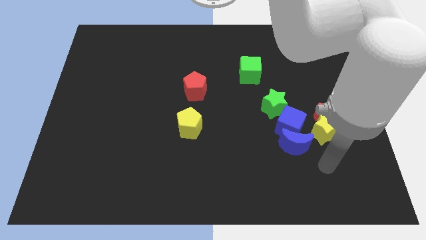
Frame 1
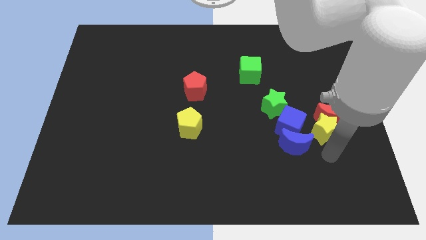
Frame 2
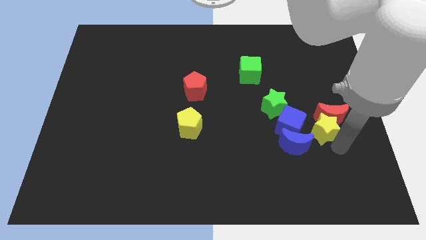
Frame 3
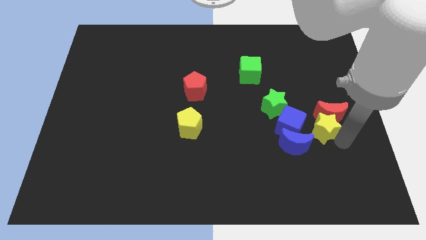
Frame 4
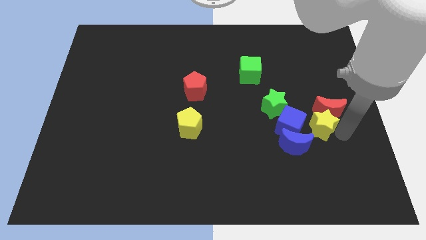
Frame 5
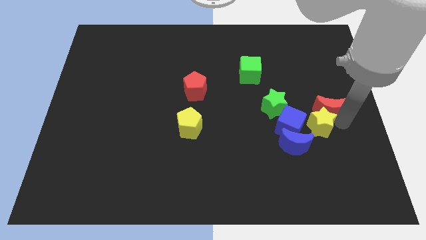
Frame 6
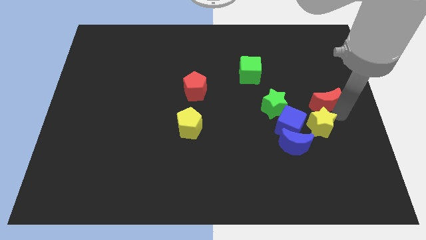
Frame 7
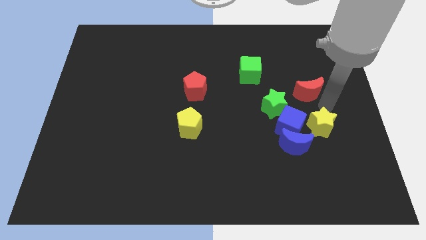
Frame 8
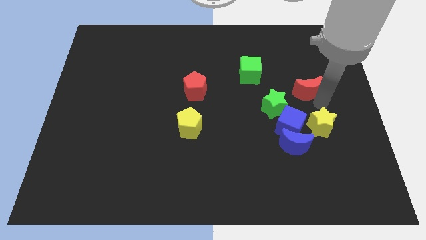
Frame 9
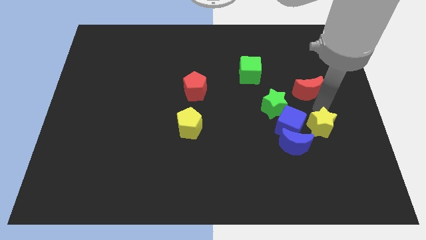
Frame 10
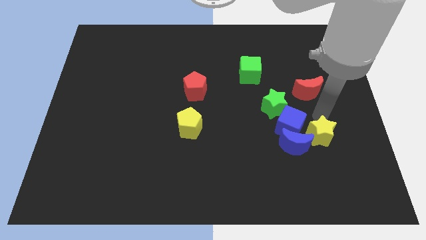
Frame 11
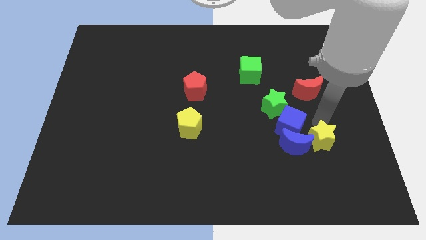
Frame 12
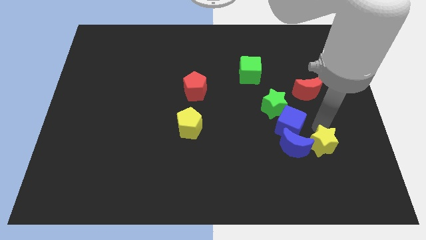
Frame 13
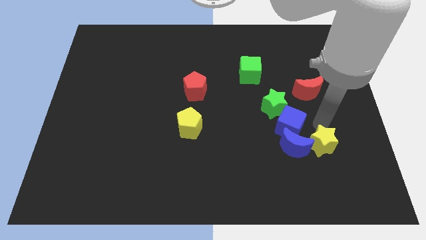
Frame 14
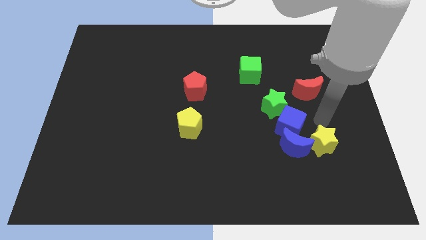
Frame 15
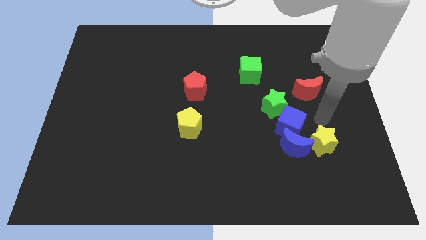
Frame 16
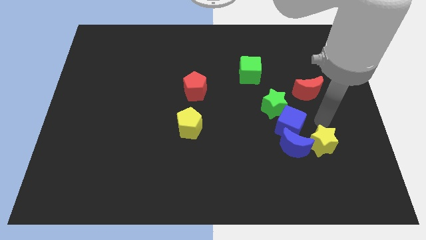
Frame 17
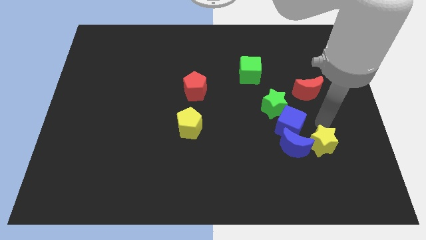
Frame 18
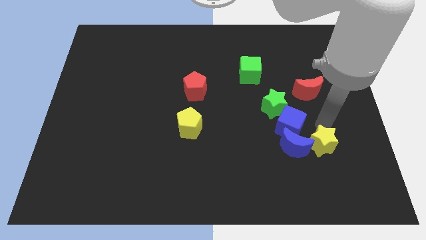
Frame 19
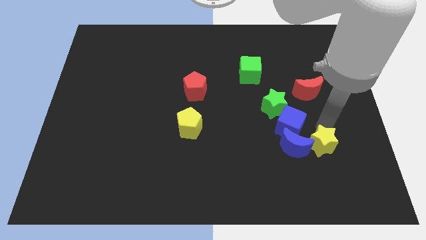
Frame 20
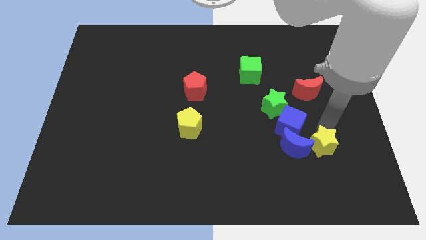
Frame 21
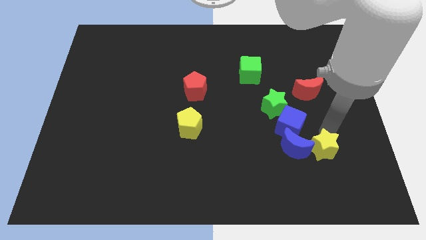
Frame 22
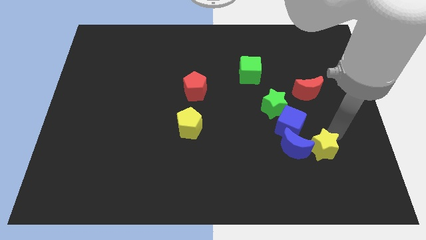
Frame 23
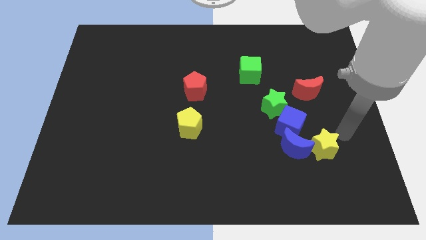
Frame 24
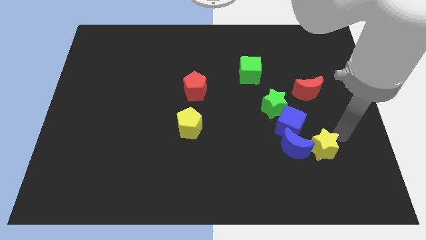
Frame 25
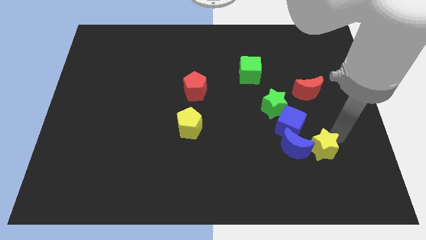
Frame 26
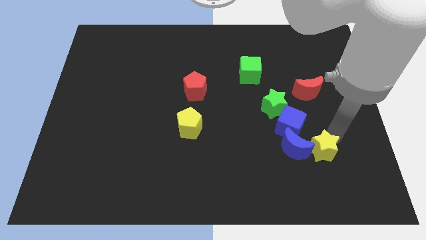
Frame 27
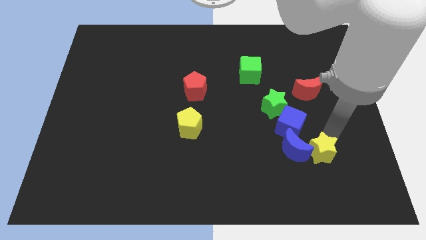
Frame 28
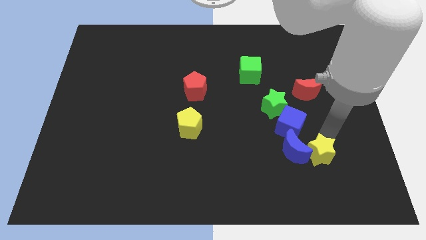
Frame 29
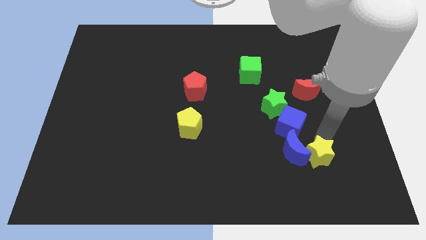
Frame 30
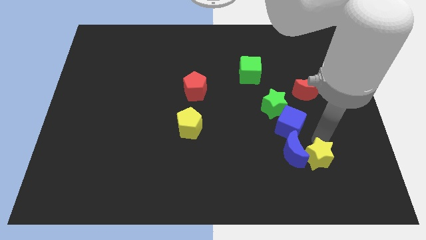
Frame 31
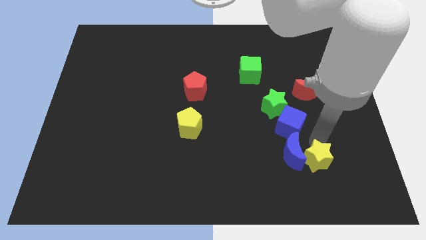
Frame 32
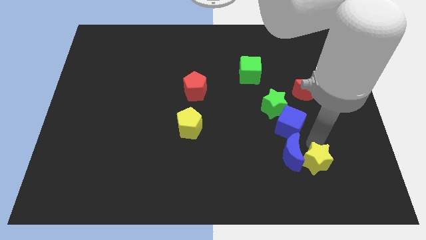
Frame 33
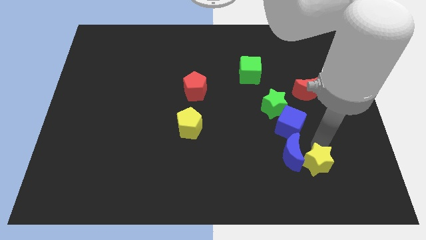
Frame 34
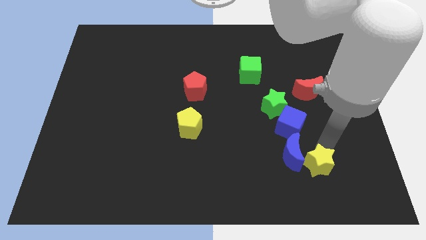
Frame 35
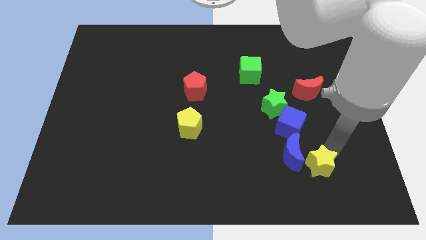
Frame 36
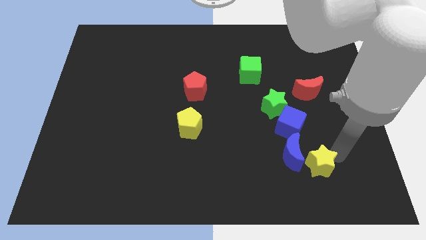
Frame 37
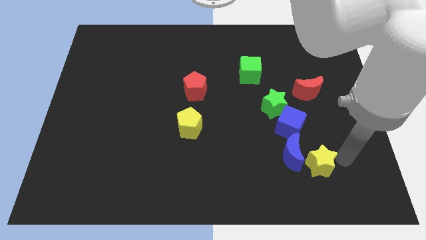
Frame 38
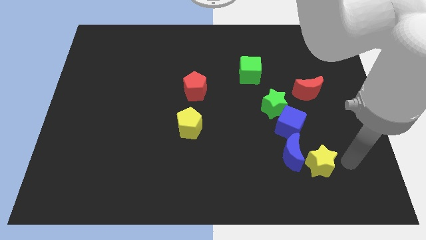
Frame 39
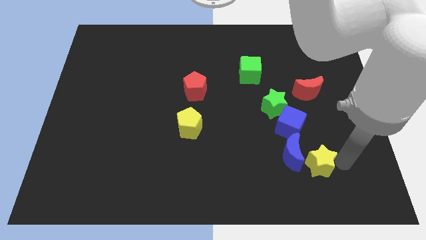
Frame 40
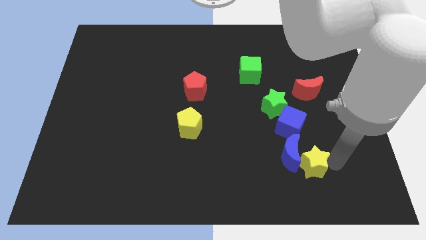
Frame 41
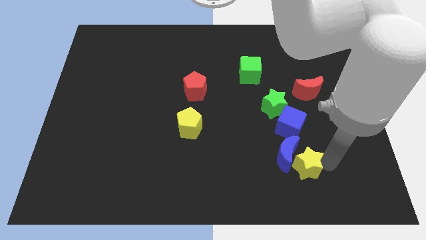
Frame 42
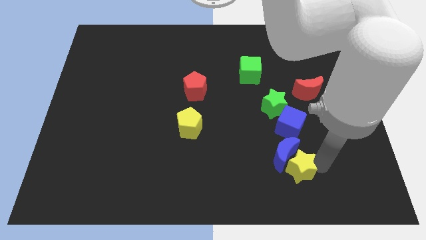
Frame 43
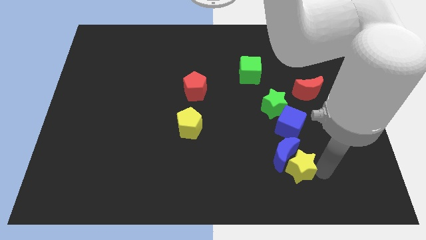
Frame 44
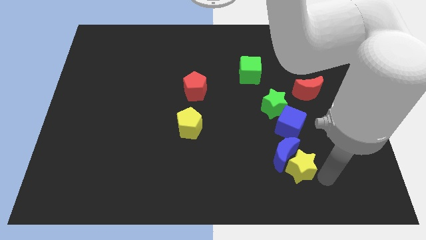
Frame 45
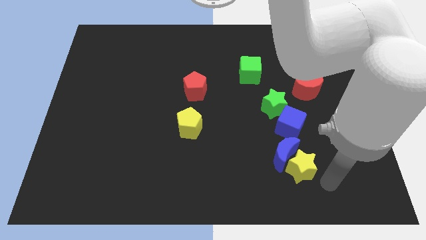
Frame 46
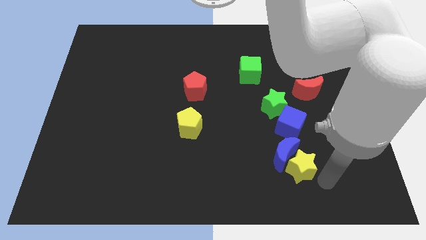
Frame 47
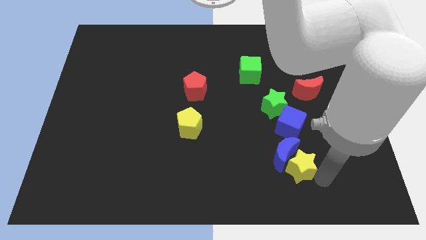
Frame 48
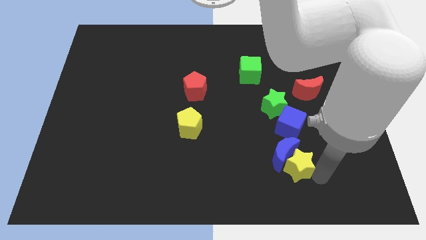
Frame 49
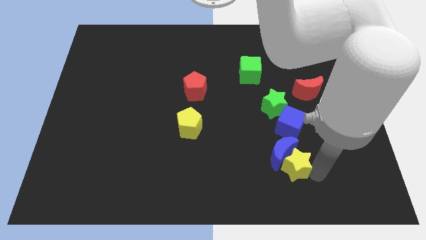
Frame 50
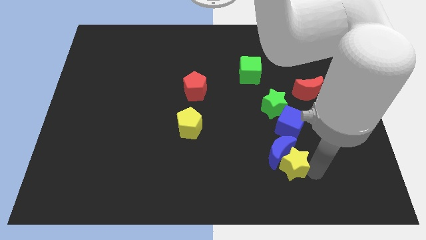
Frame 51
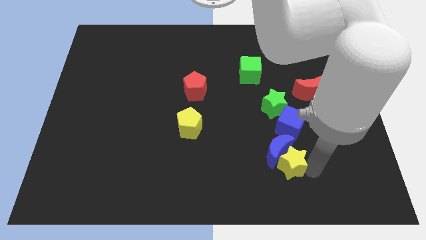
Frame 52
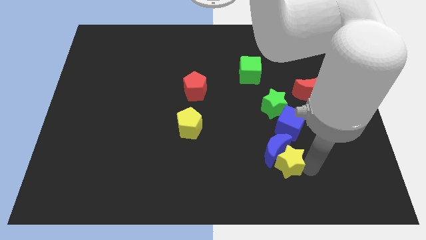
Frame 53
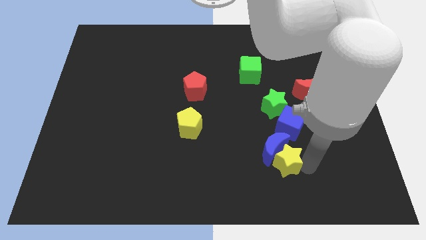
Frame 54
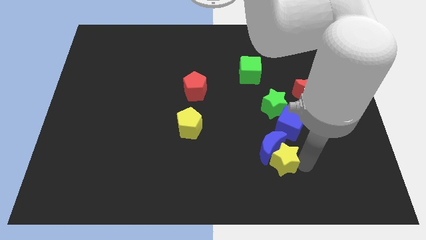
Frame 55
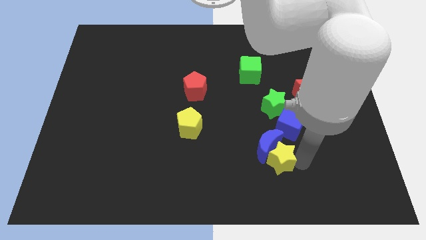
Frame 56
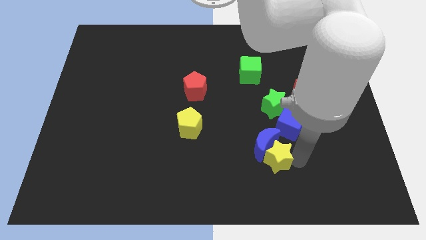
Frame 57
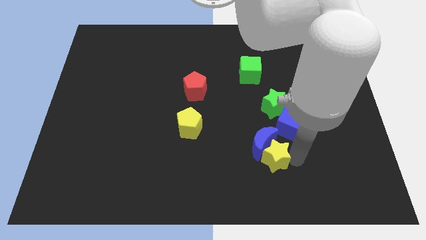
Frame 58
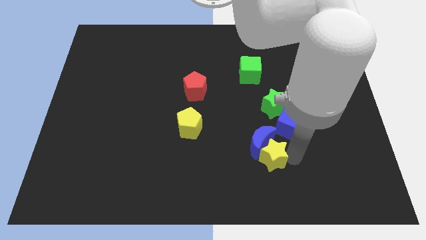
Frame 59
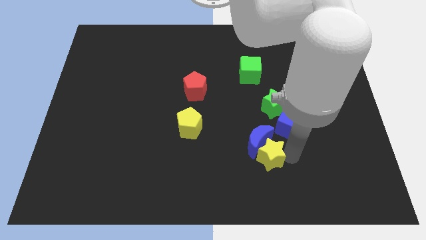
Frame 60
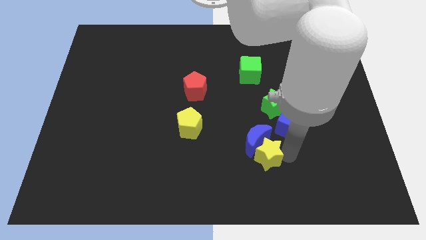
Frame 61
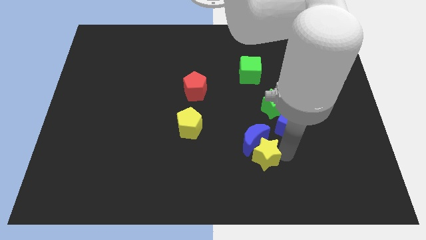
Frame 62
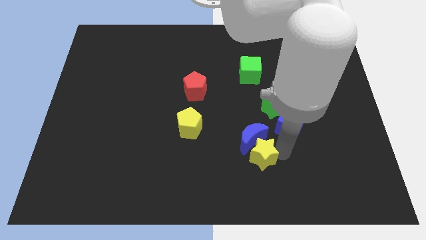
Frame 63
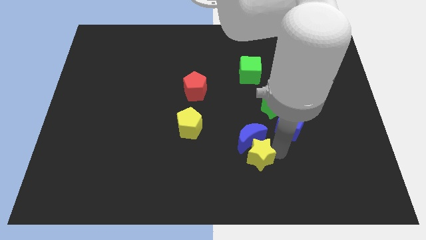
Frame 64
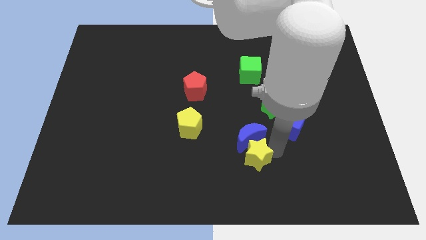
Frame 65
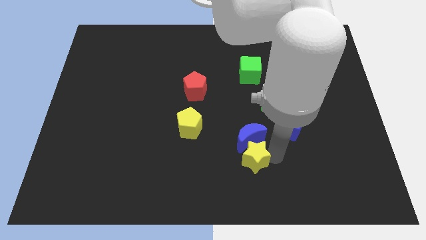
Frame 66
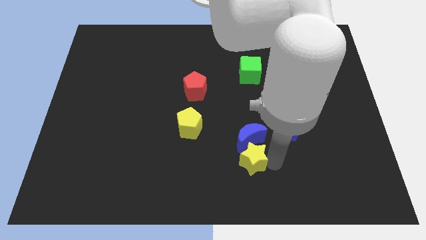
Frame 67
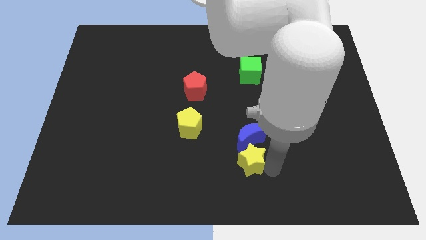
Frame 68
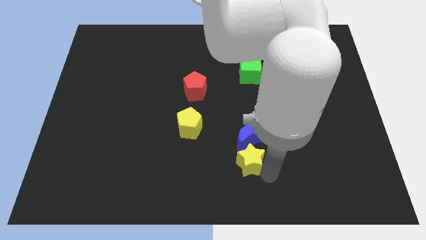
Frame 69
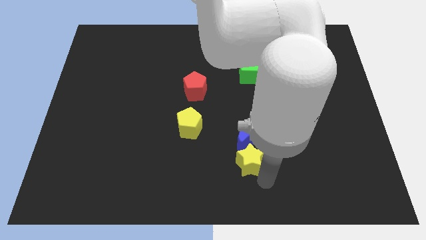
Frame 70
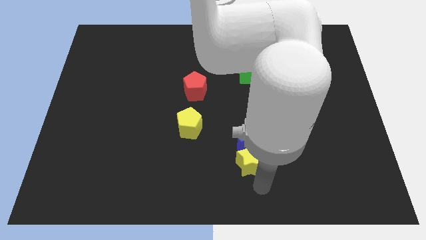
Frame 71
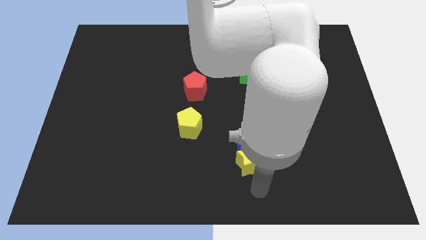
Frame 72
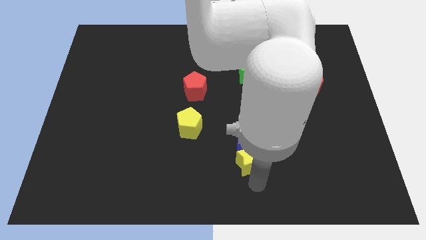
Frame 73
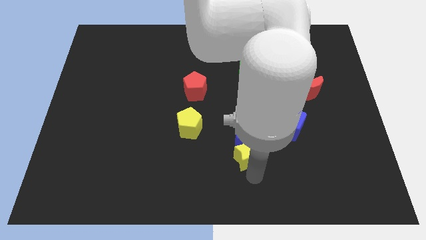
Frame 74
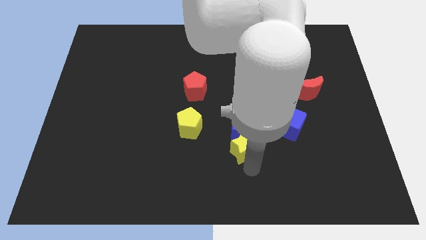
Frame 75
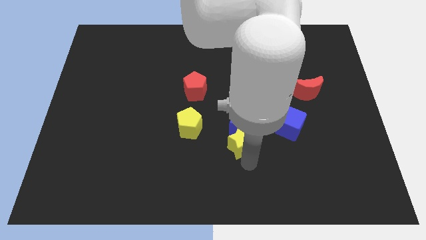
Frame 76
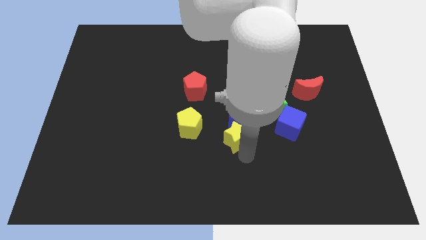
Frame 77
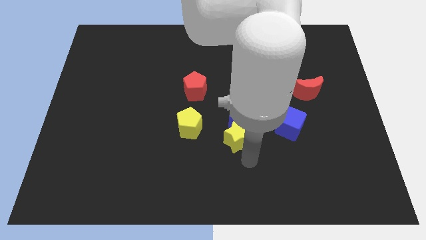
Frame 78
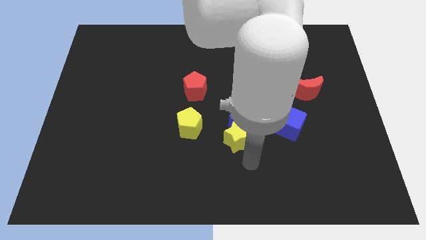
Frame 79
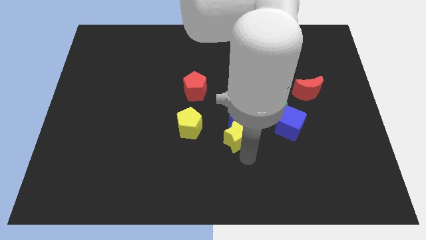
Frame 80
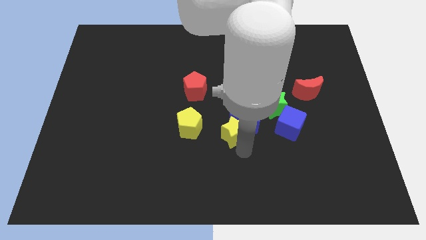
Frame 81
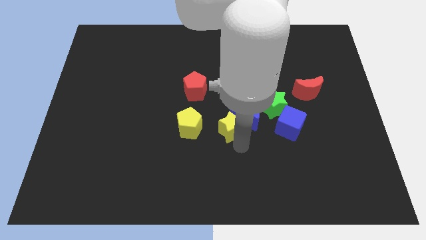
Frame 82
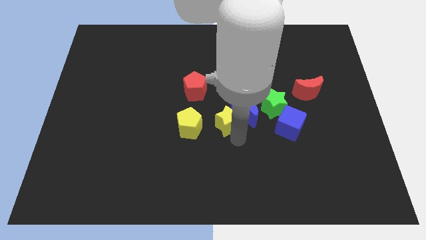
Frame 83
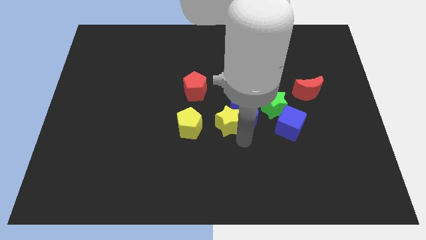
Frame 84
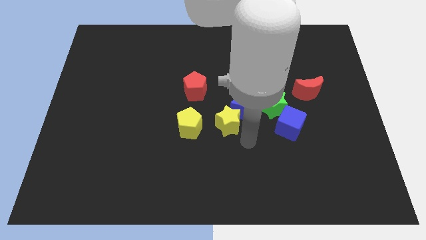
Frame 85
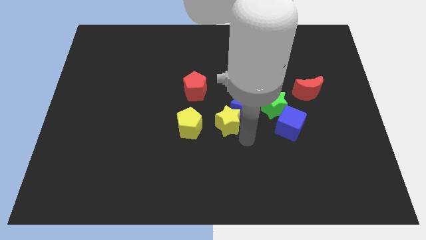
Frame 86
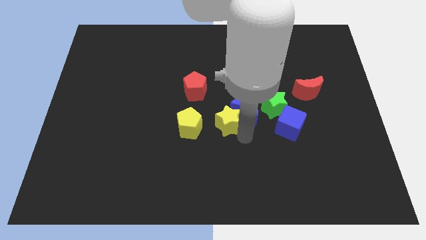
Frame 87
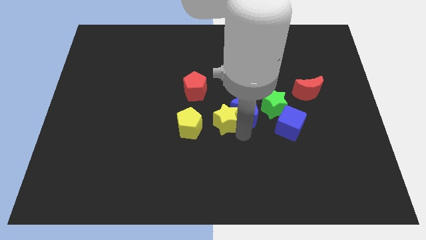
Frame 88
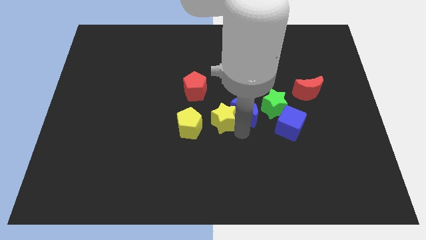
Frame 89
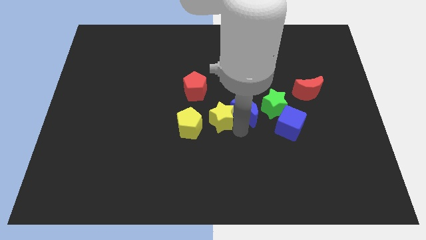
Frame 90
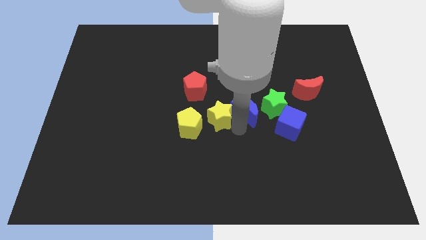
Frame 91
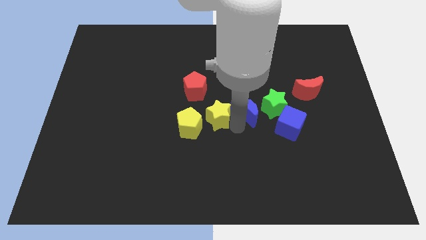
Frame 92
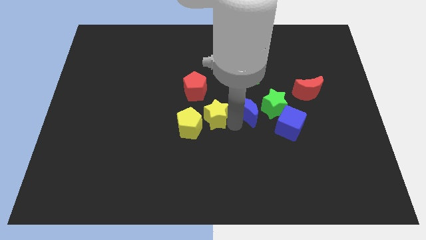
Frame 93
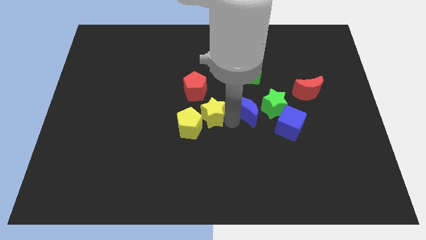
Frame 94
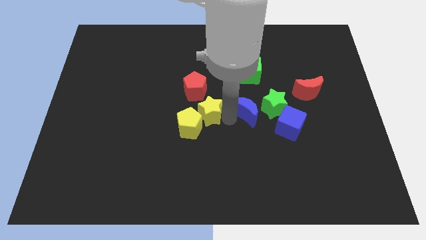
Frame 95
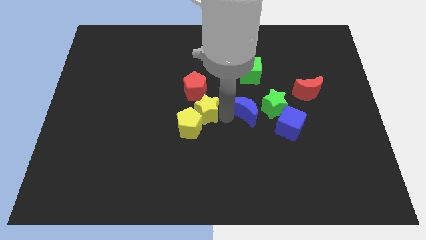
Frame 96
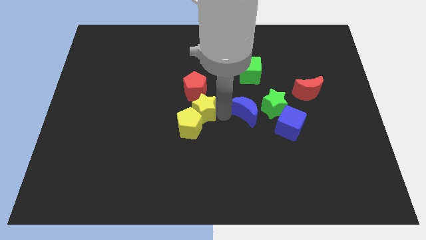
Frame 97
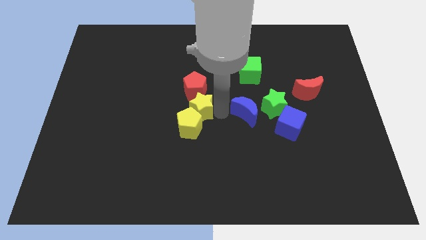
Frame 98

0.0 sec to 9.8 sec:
put the yellow star close to the red pentagon
